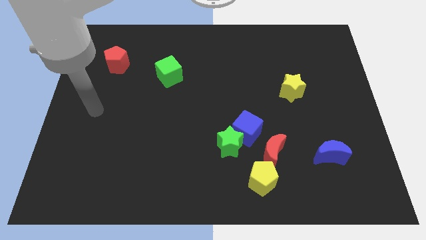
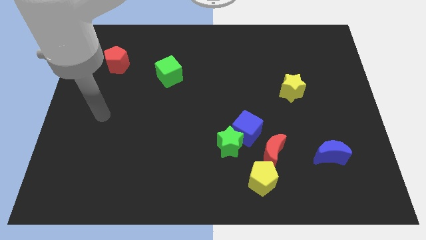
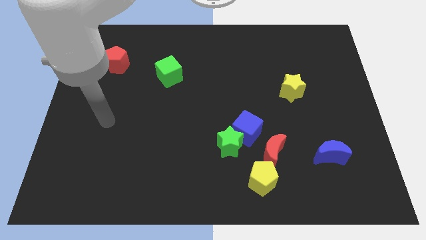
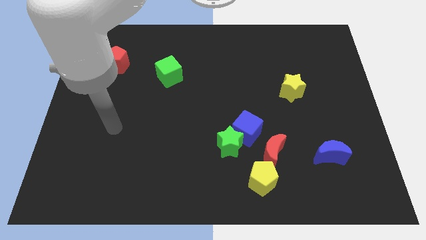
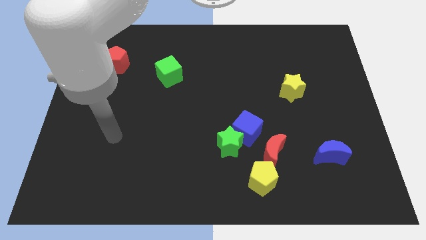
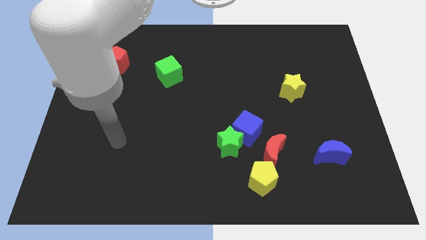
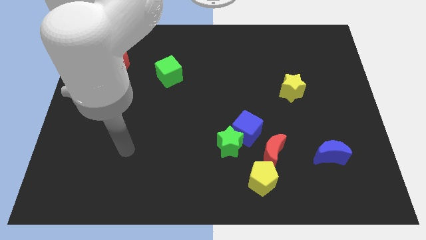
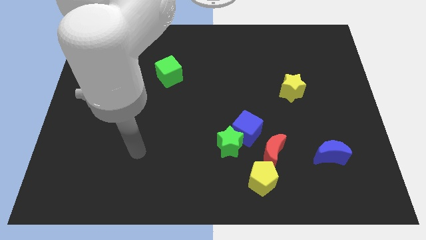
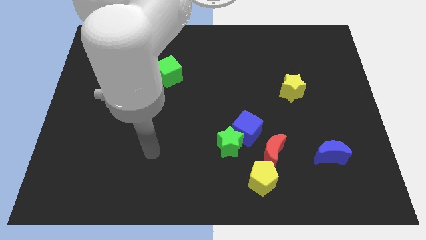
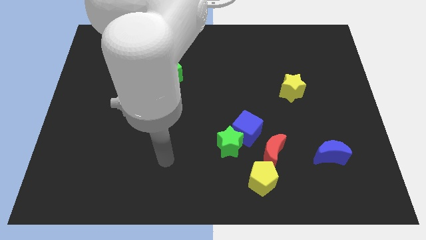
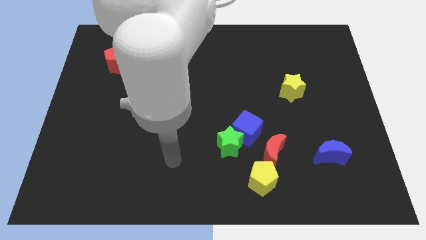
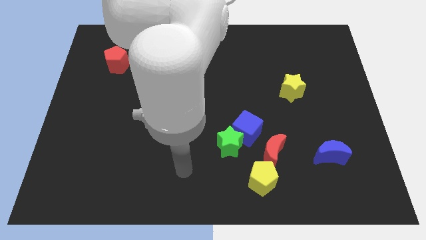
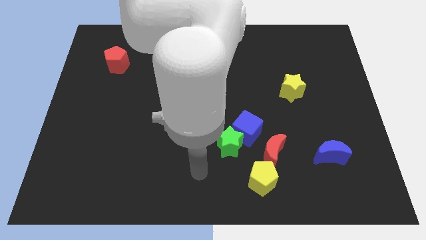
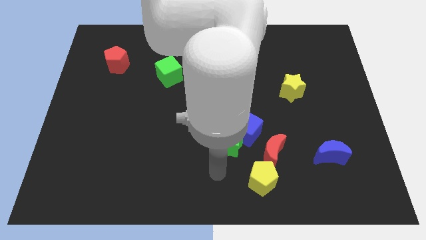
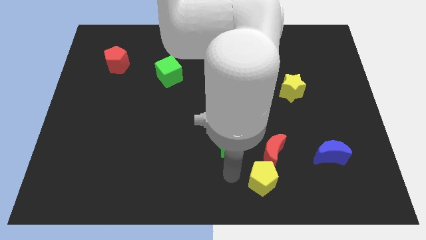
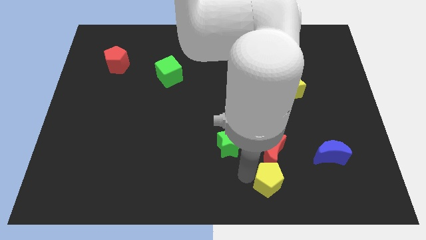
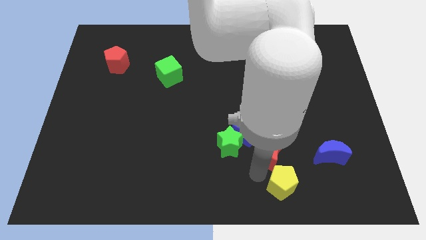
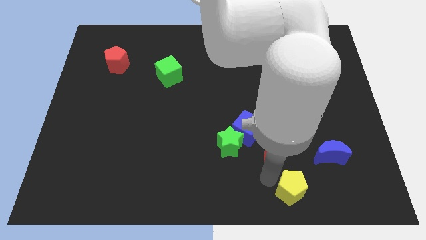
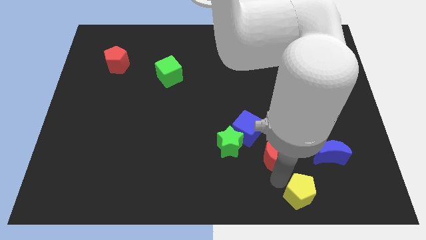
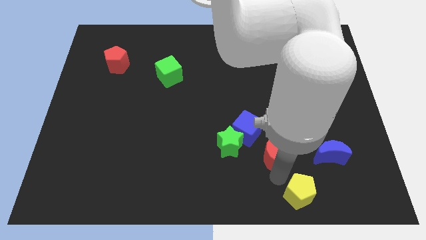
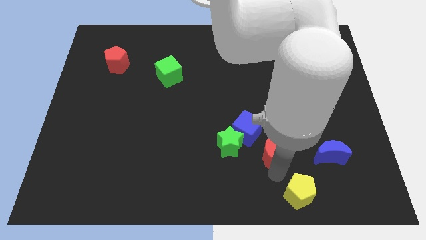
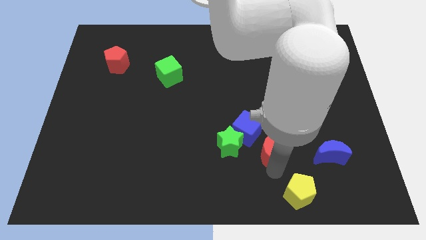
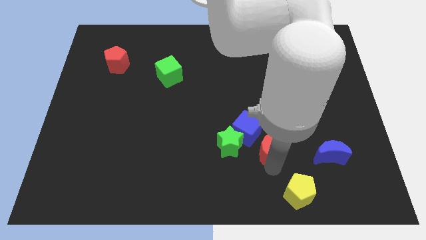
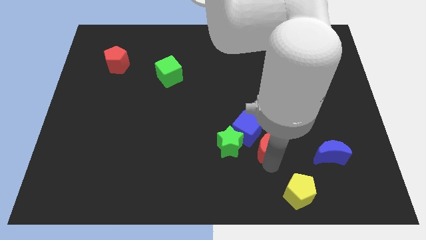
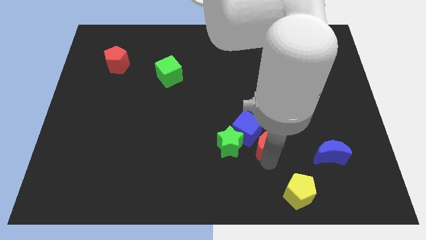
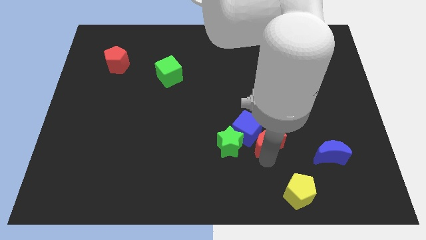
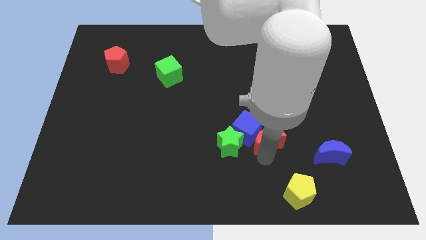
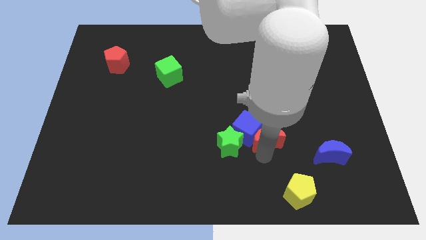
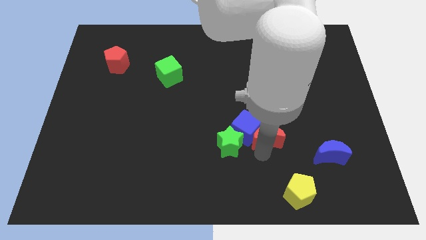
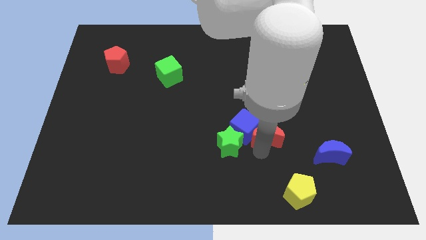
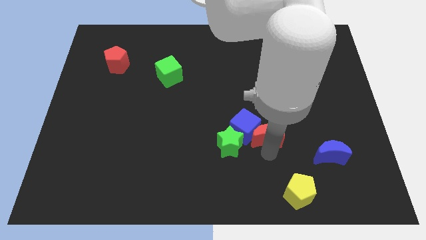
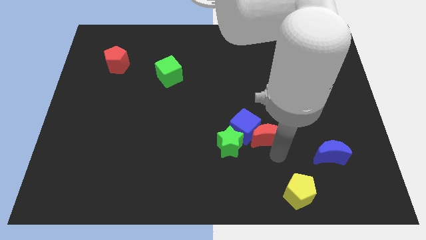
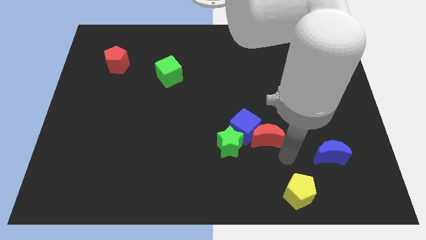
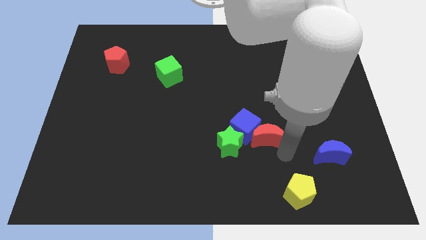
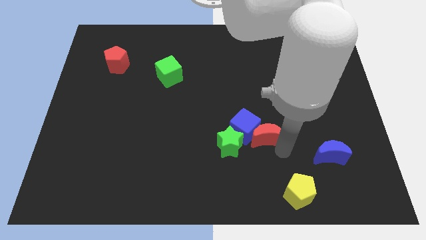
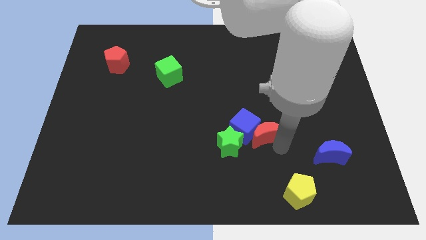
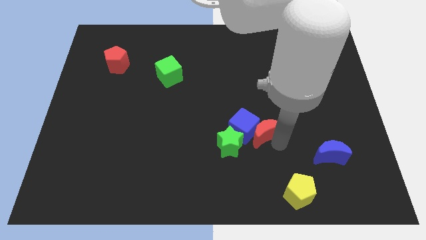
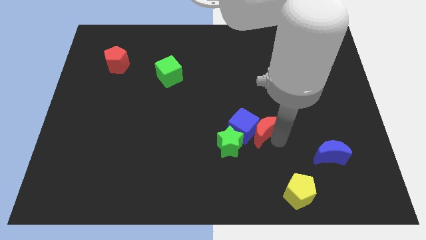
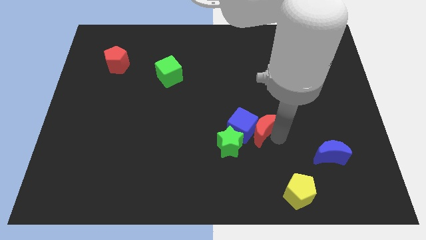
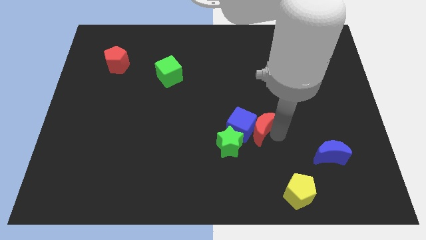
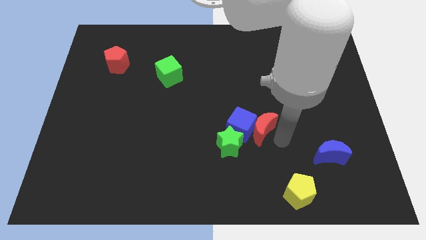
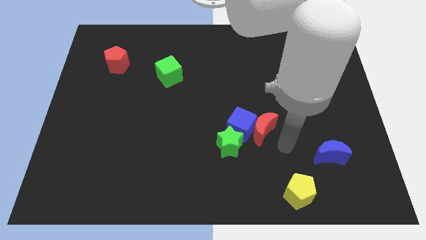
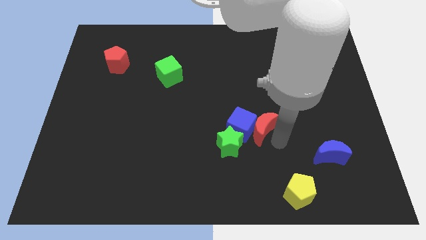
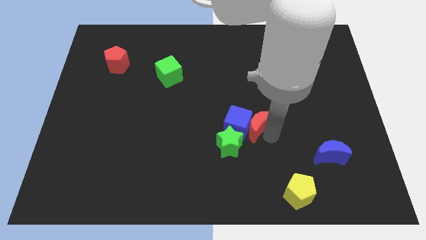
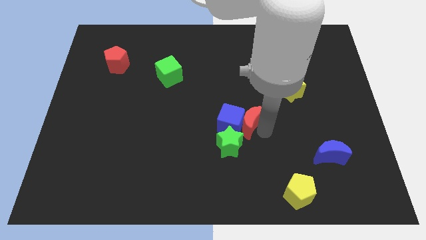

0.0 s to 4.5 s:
slide the red moon diagonally up and left a bit

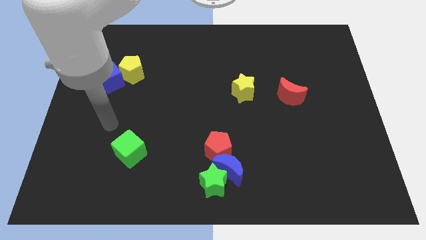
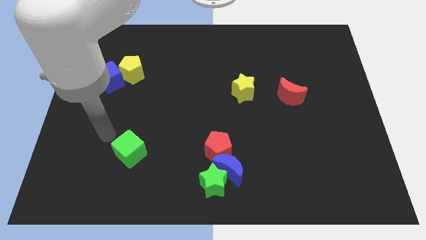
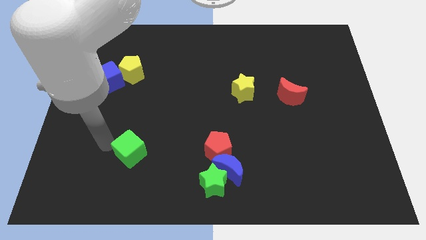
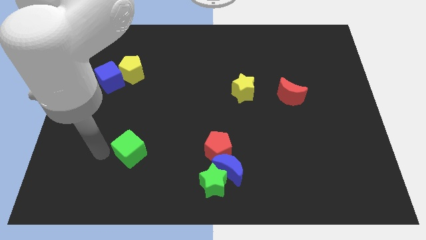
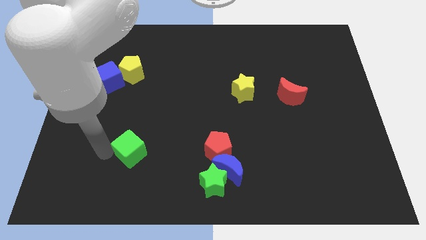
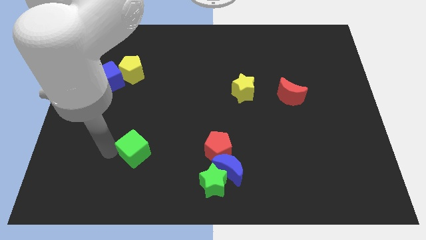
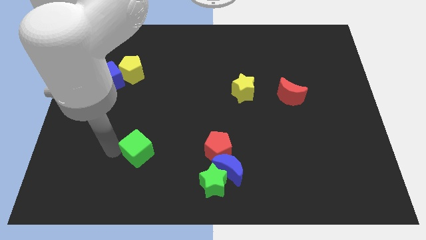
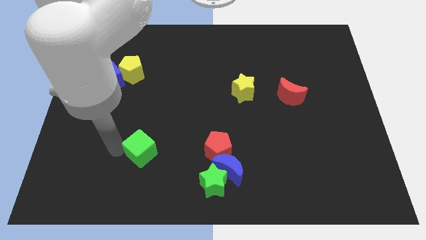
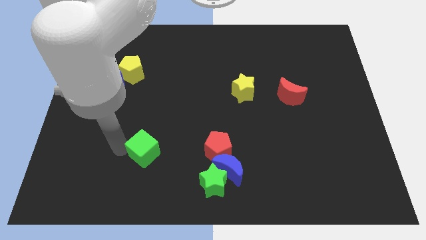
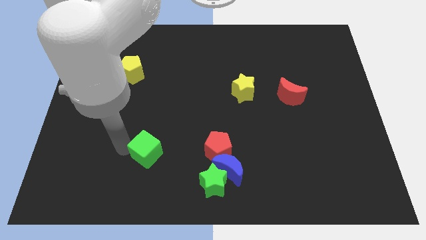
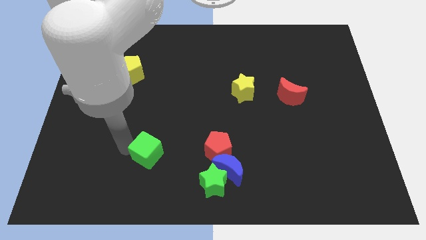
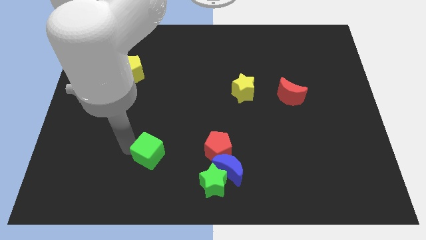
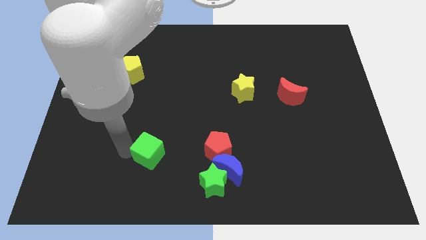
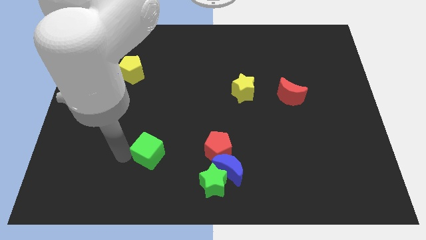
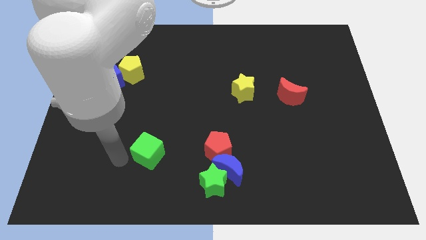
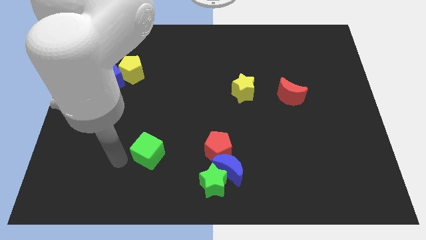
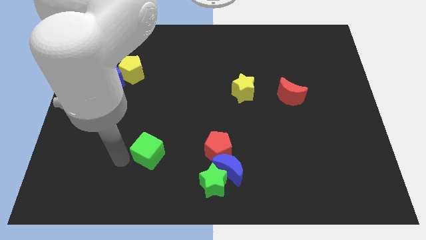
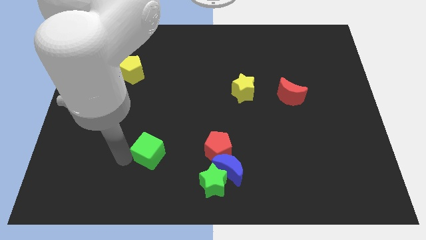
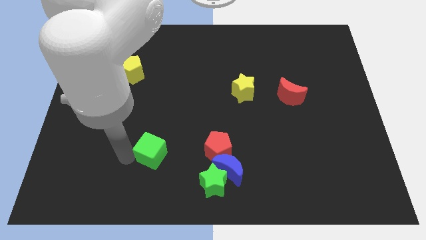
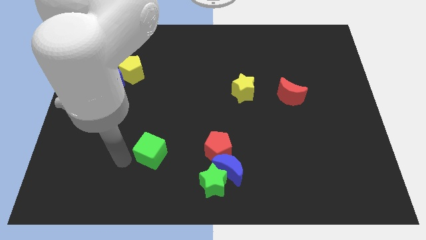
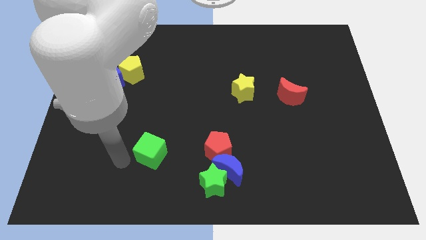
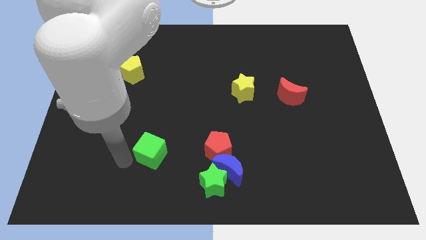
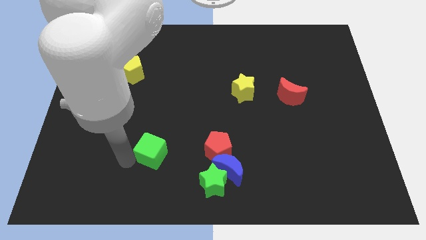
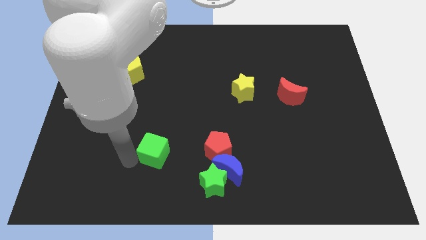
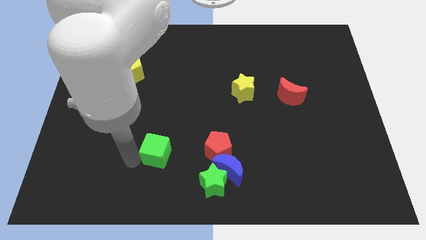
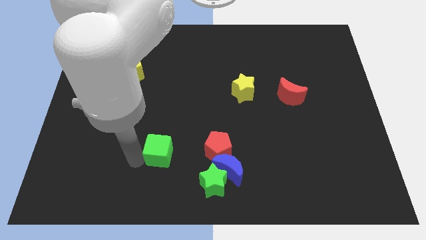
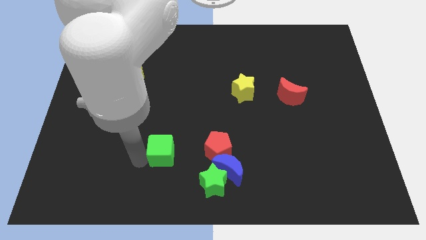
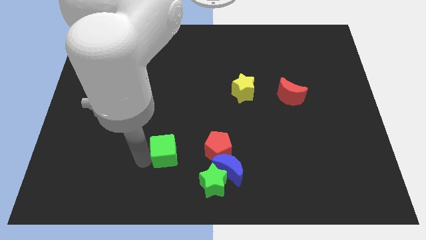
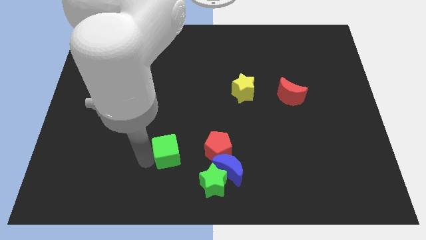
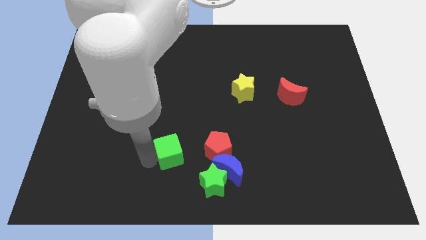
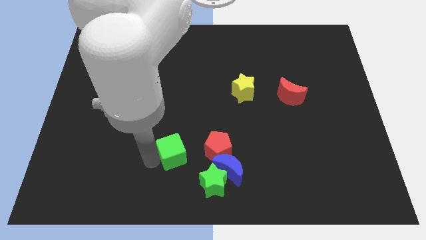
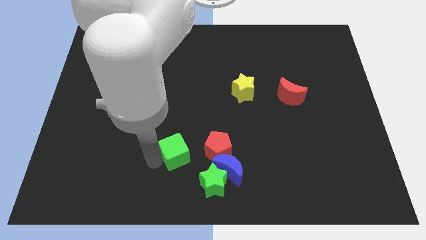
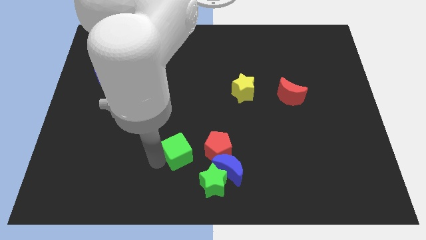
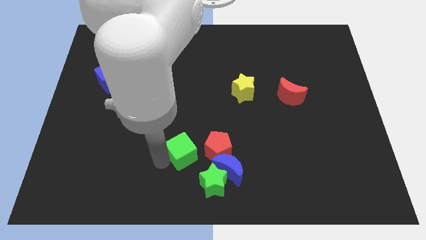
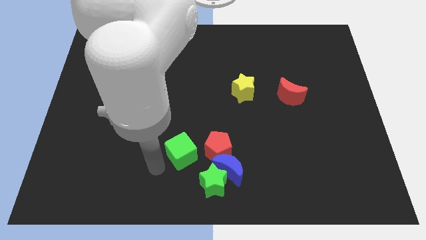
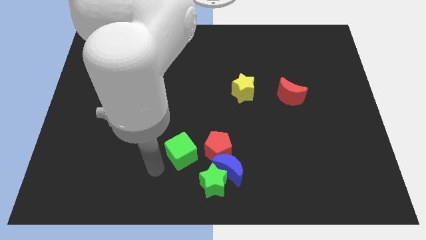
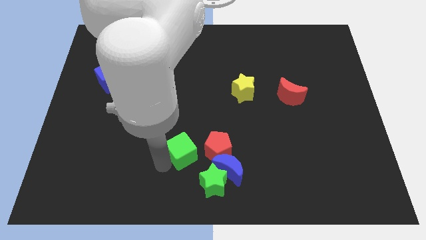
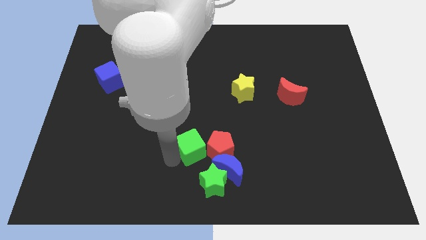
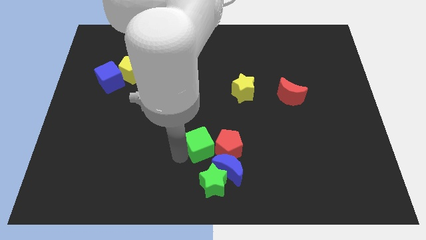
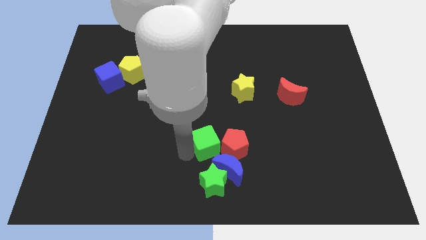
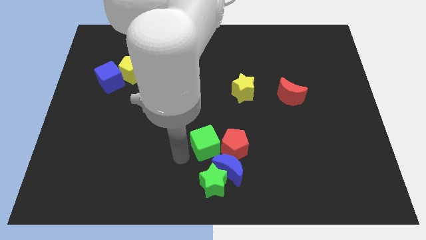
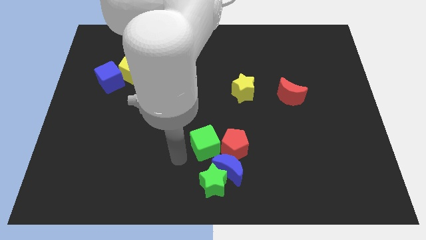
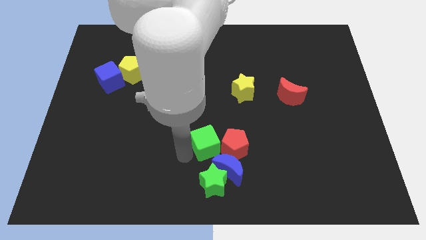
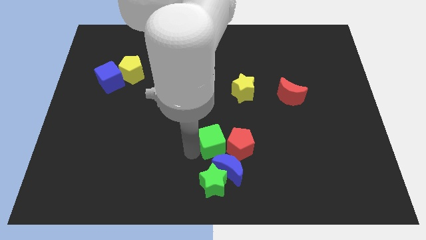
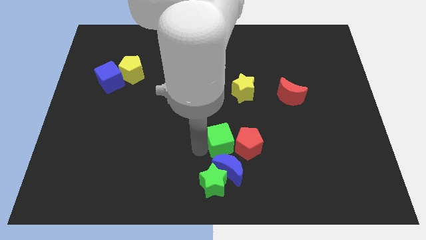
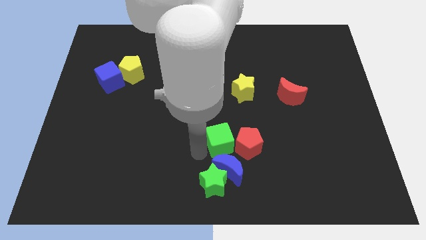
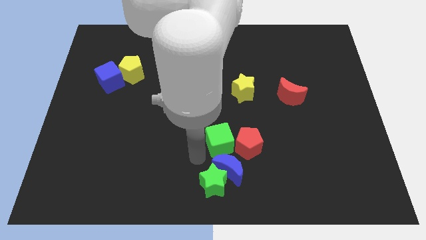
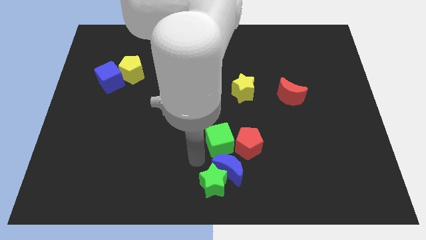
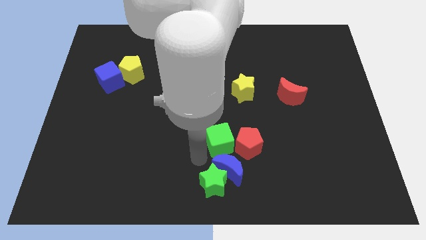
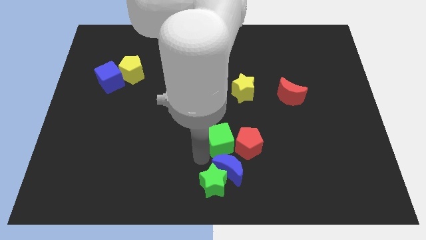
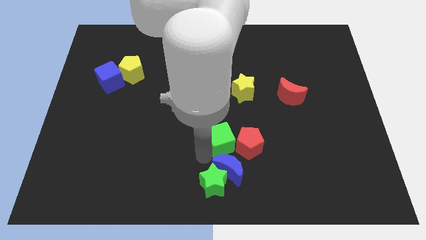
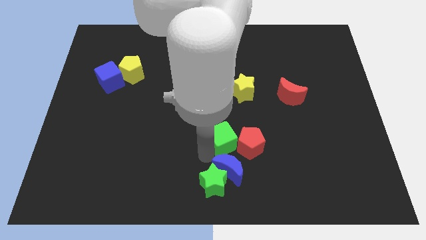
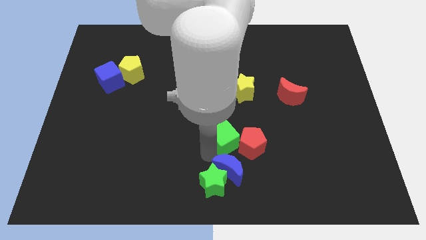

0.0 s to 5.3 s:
push the green cube right
